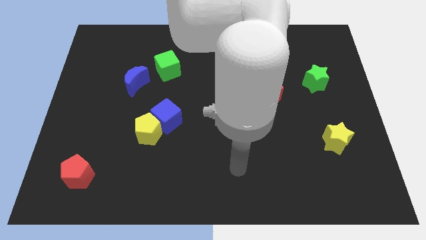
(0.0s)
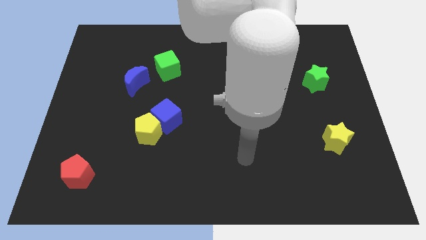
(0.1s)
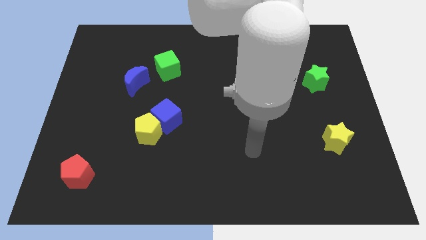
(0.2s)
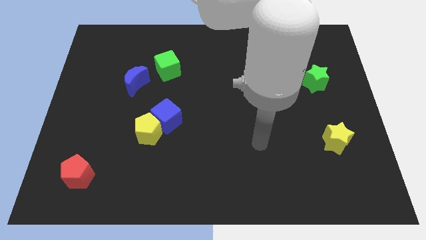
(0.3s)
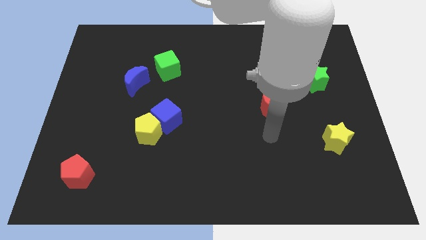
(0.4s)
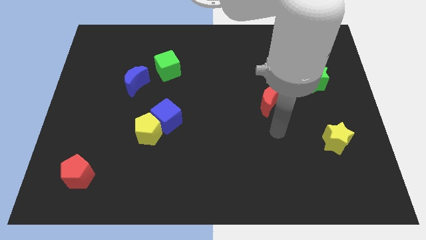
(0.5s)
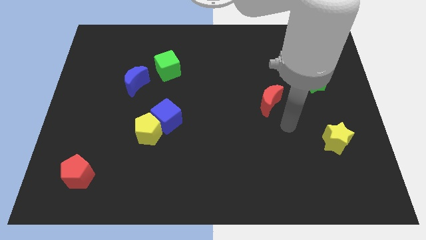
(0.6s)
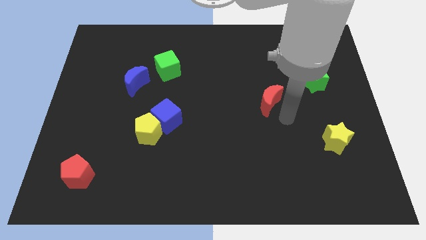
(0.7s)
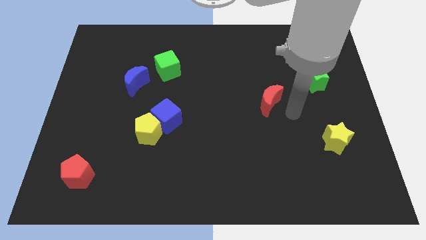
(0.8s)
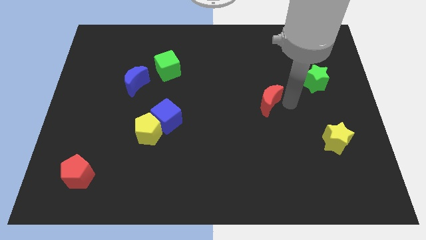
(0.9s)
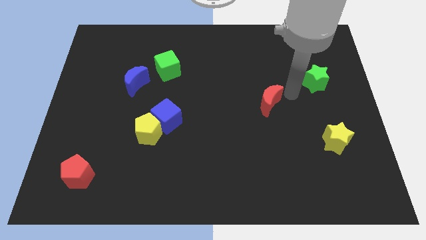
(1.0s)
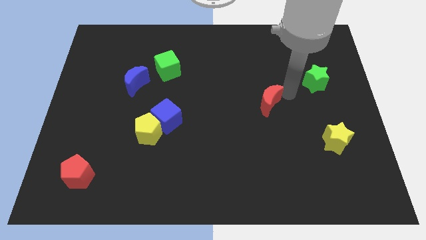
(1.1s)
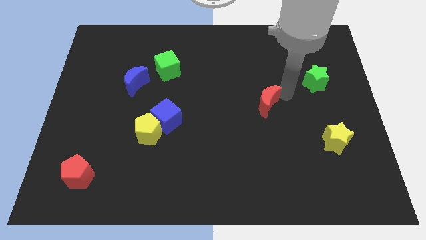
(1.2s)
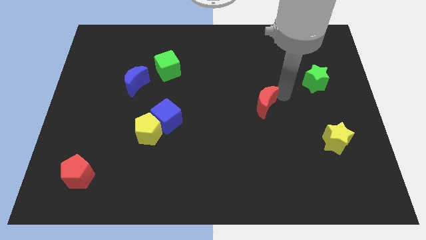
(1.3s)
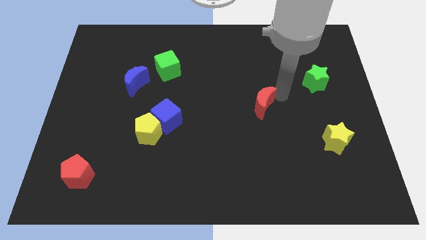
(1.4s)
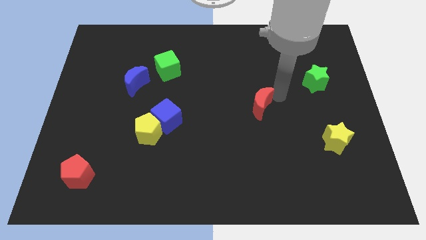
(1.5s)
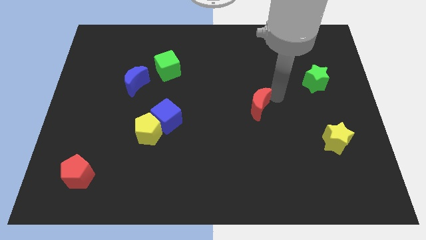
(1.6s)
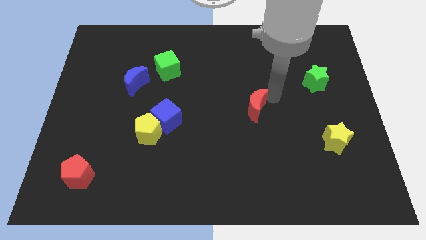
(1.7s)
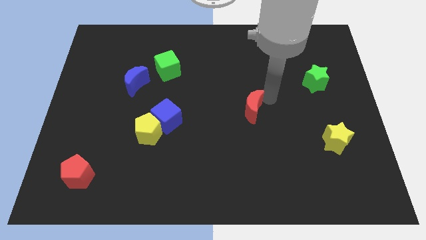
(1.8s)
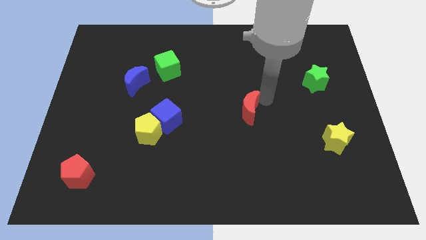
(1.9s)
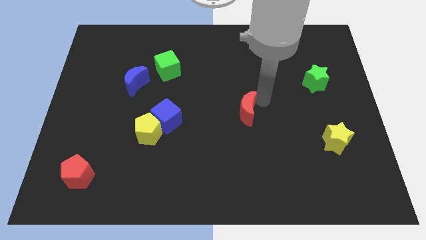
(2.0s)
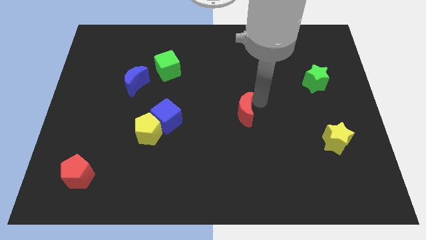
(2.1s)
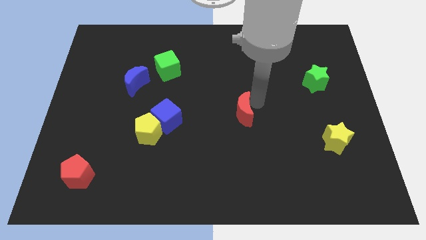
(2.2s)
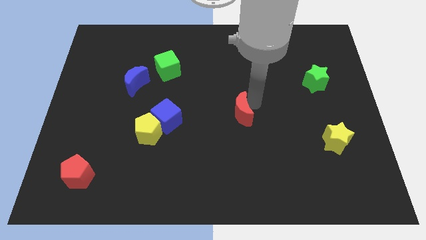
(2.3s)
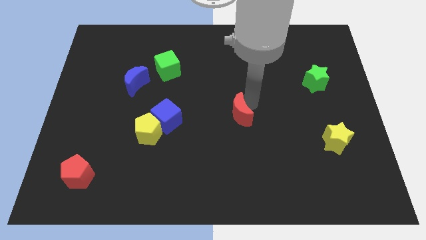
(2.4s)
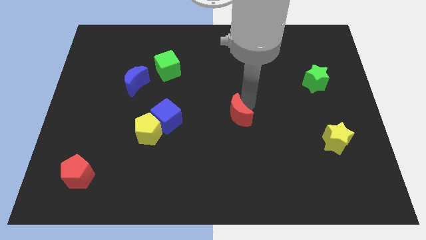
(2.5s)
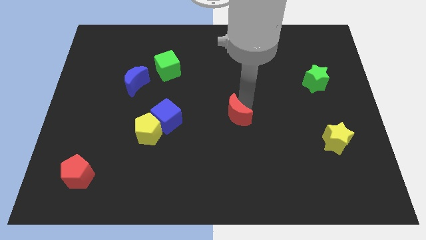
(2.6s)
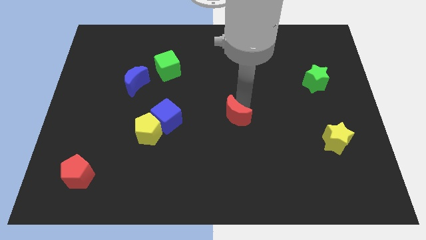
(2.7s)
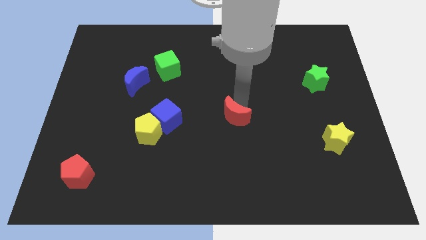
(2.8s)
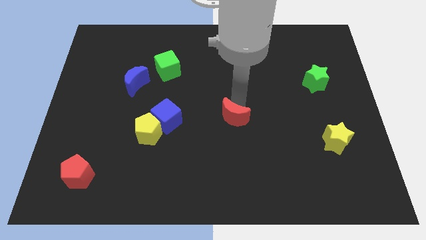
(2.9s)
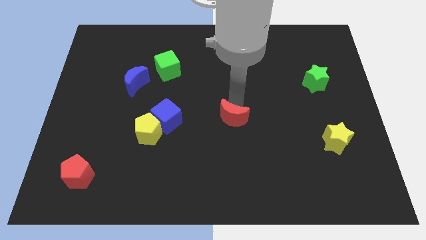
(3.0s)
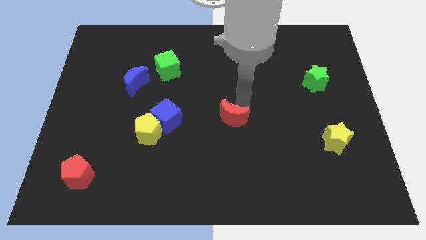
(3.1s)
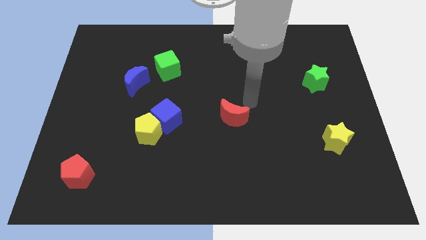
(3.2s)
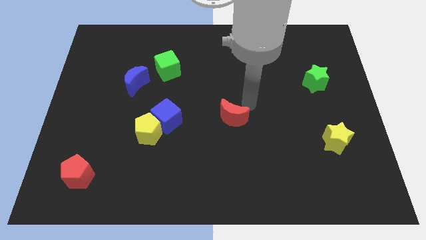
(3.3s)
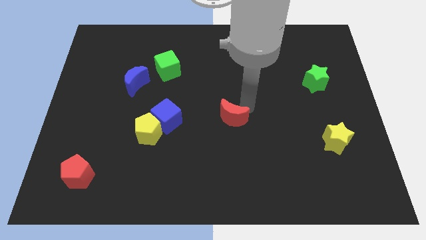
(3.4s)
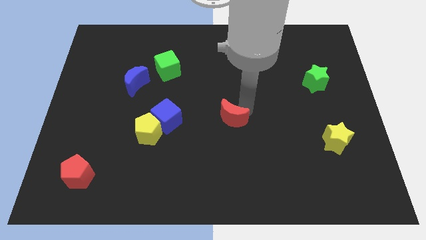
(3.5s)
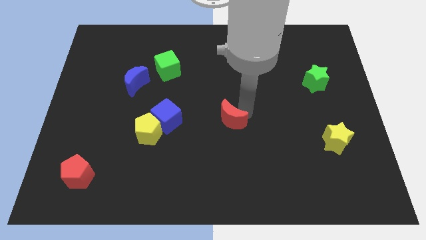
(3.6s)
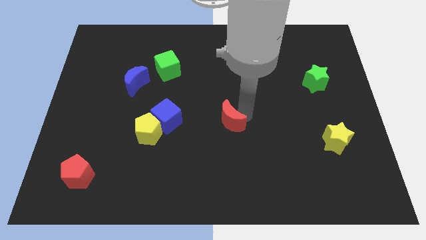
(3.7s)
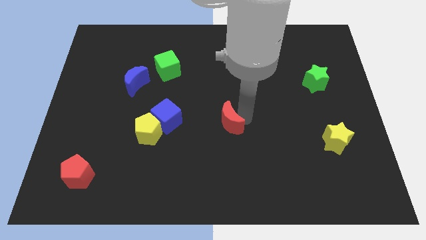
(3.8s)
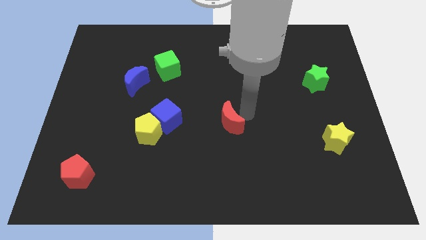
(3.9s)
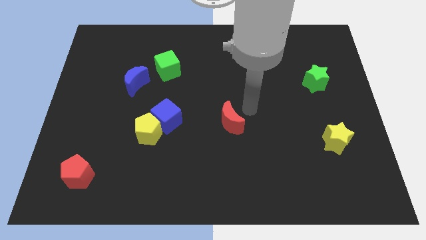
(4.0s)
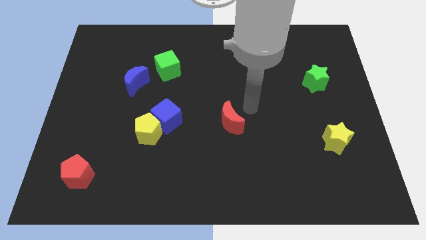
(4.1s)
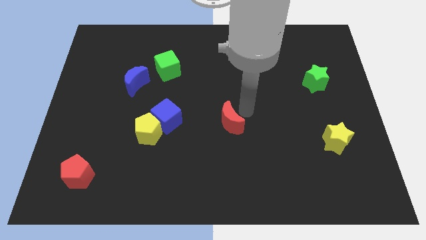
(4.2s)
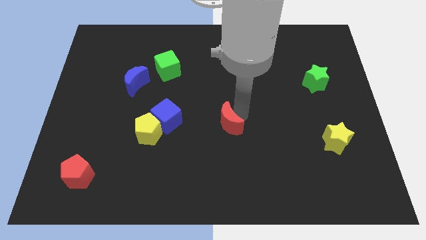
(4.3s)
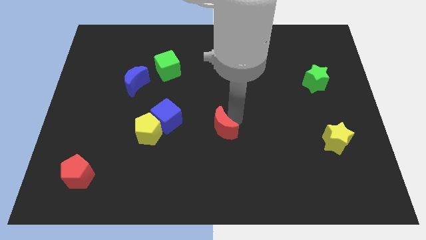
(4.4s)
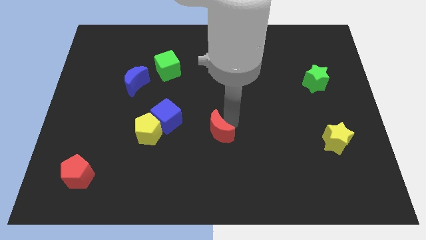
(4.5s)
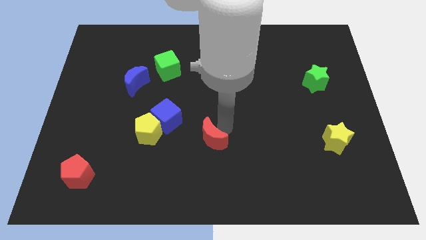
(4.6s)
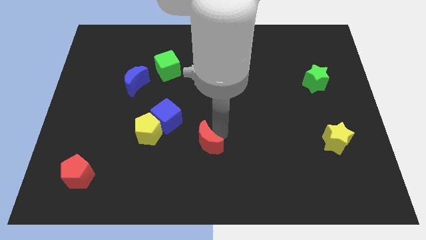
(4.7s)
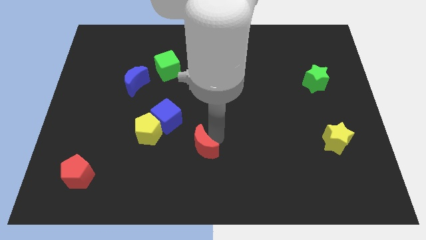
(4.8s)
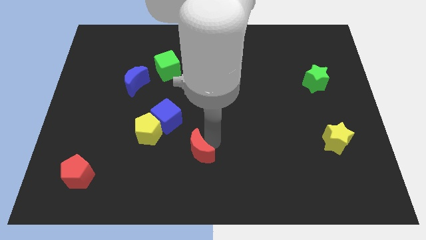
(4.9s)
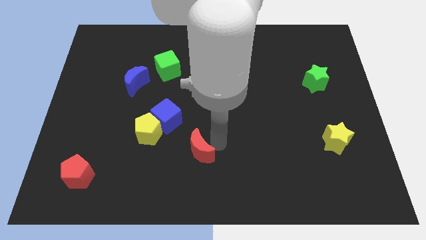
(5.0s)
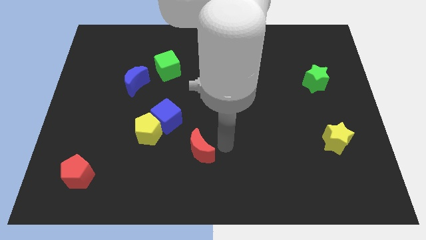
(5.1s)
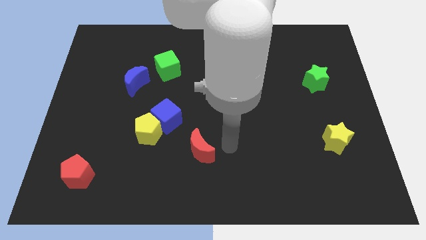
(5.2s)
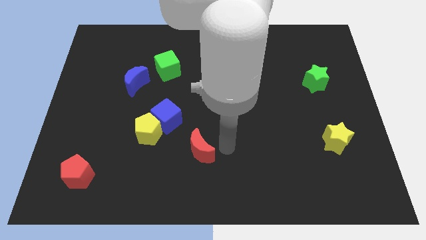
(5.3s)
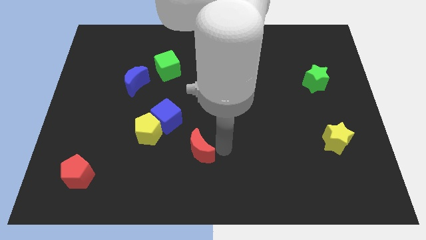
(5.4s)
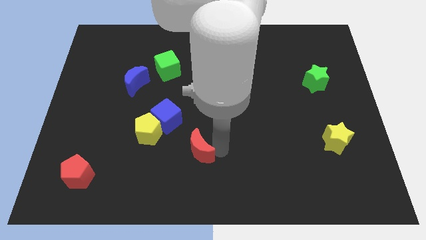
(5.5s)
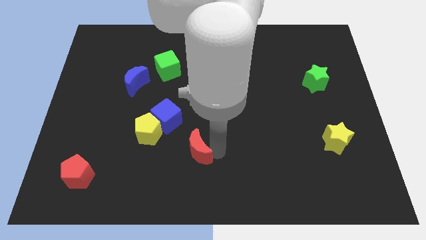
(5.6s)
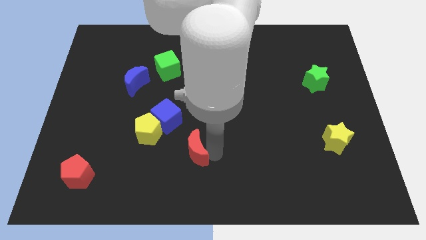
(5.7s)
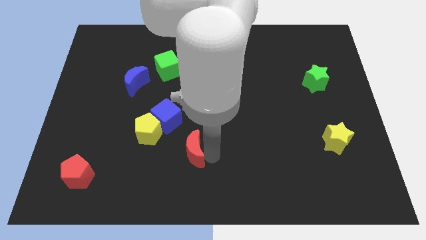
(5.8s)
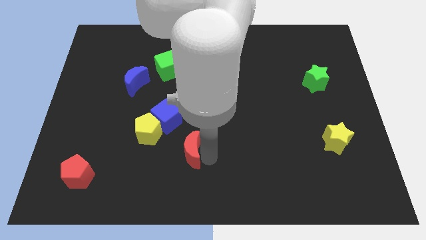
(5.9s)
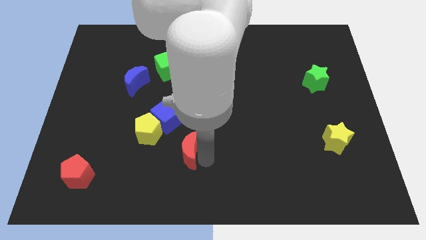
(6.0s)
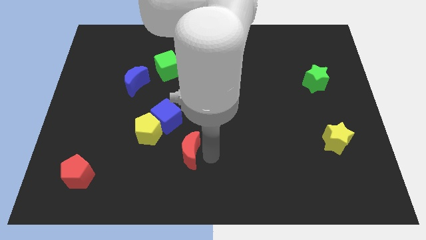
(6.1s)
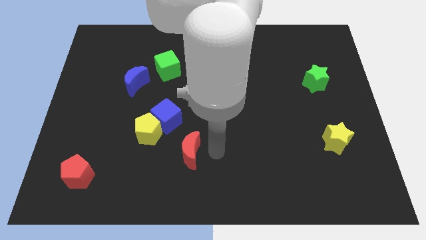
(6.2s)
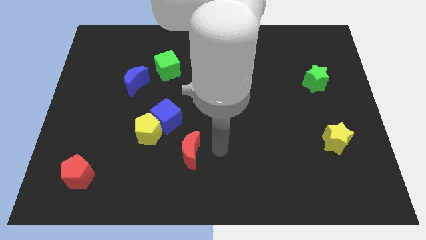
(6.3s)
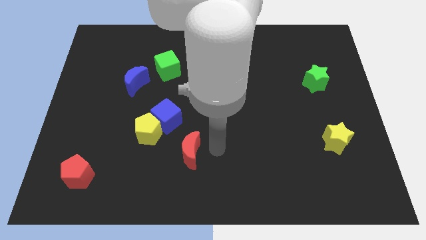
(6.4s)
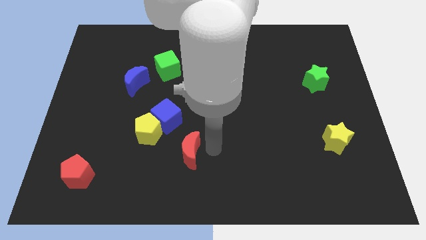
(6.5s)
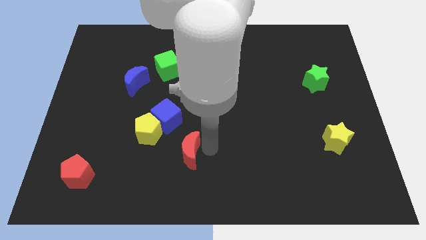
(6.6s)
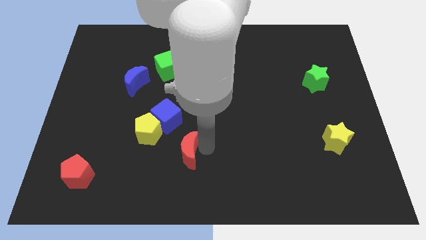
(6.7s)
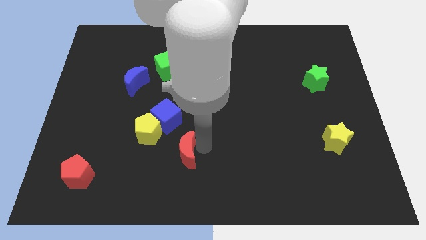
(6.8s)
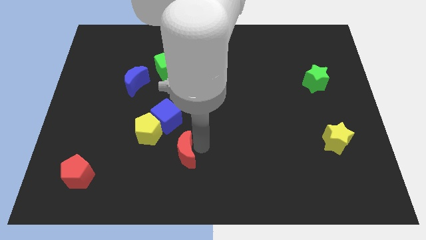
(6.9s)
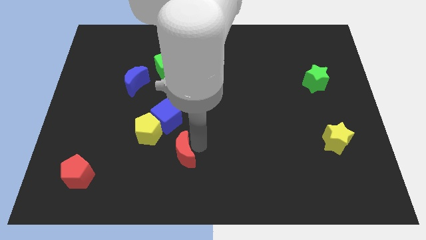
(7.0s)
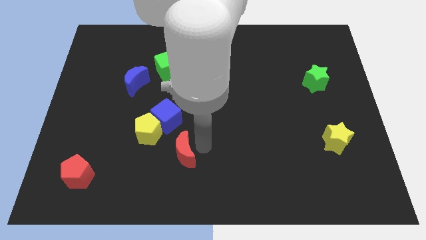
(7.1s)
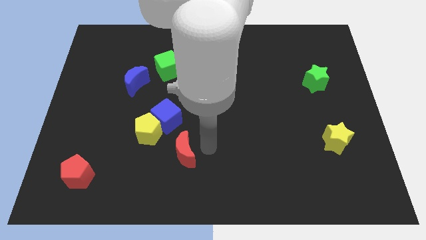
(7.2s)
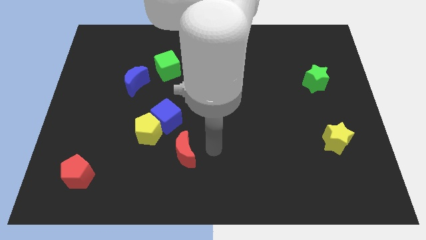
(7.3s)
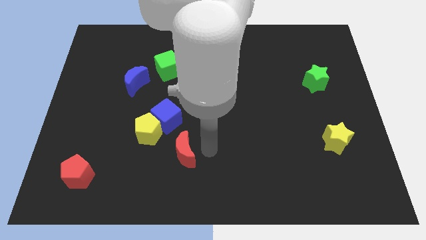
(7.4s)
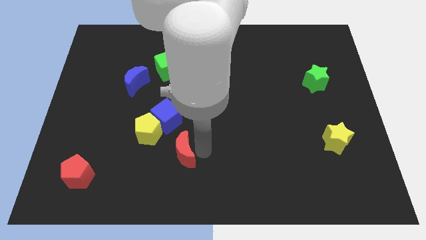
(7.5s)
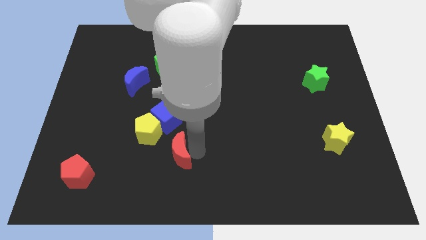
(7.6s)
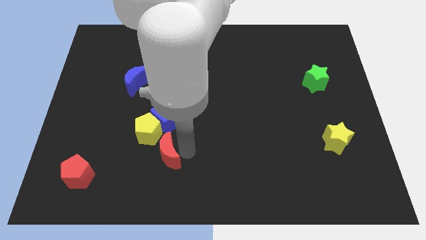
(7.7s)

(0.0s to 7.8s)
slide the red moon to the bottom side of the yellow pentagon
